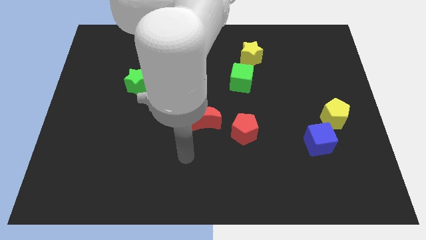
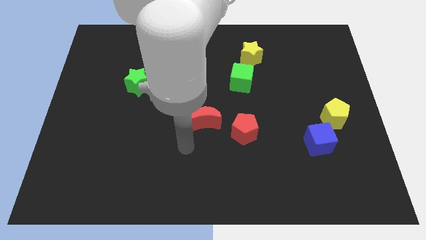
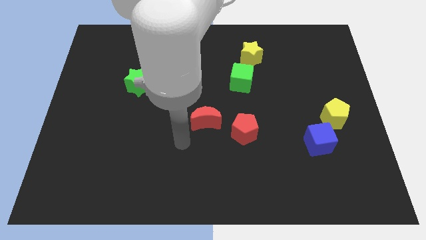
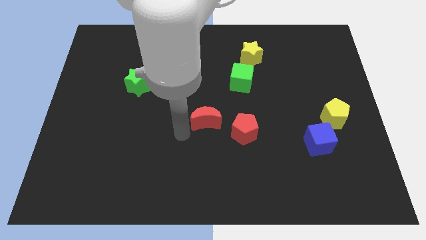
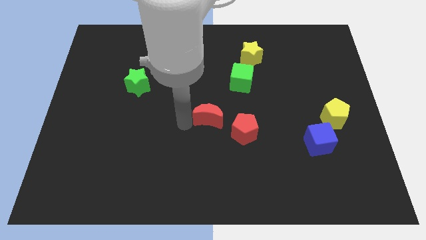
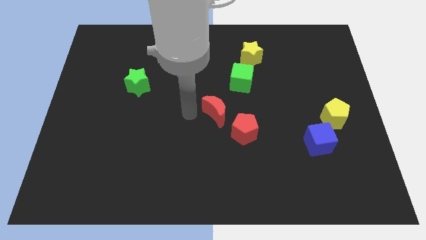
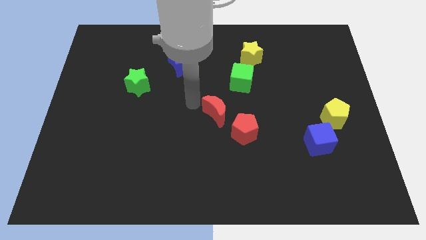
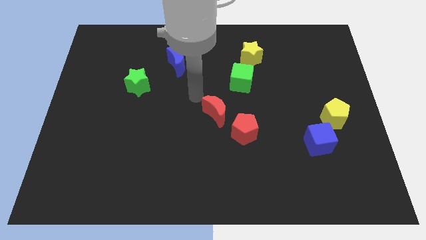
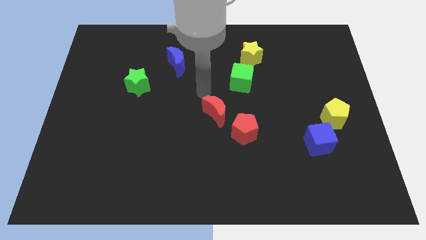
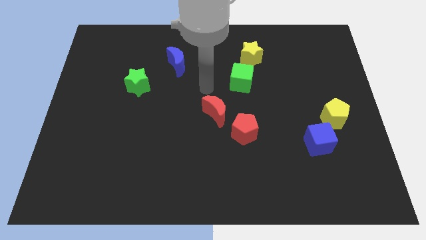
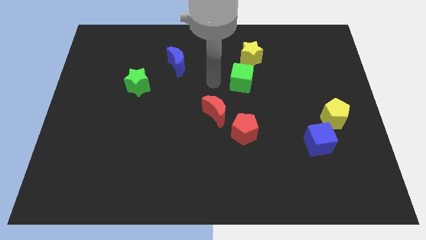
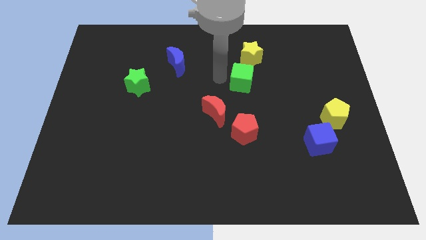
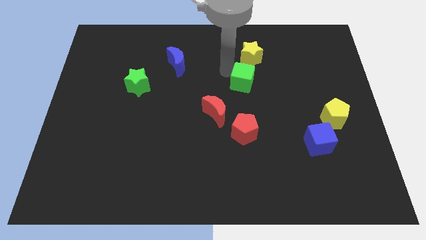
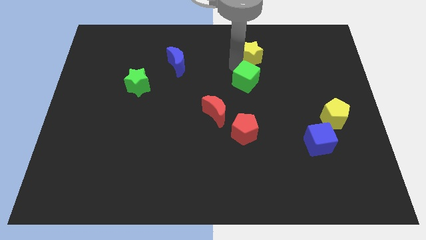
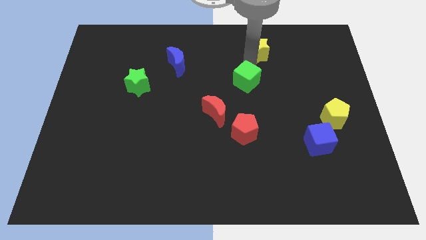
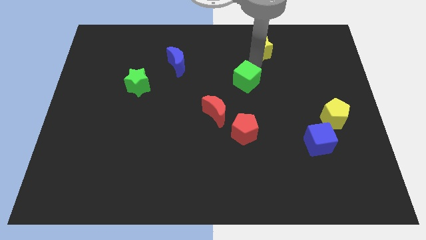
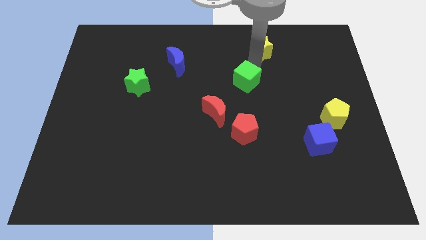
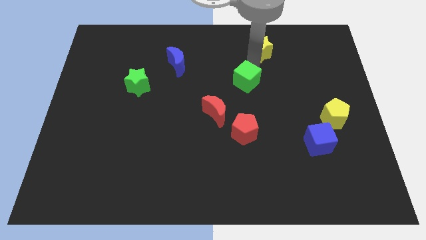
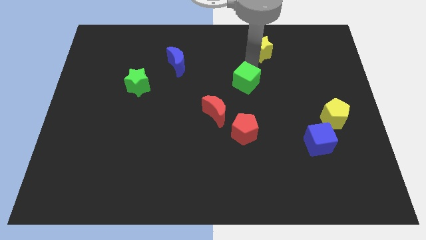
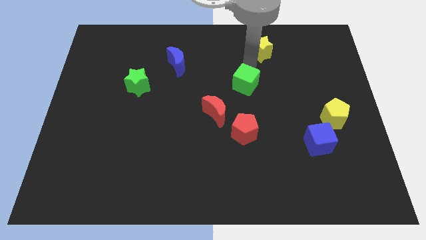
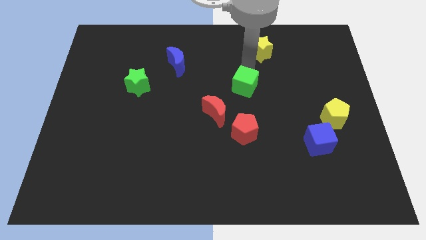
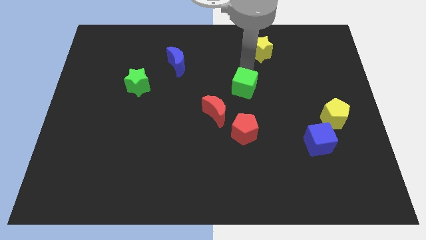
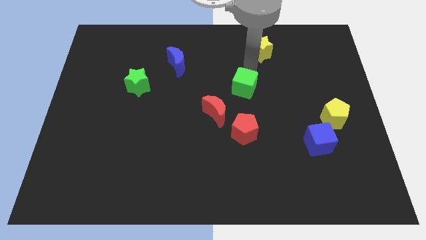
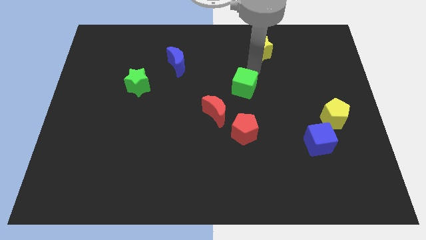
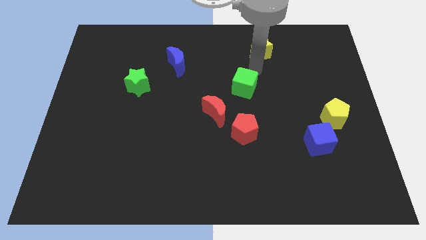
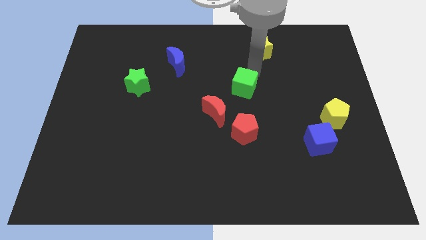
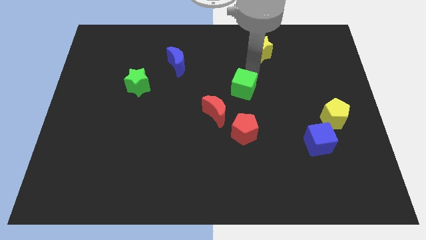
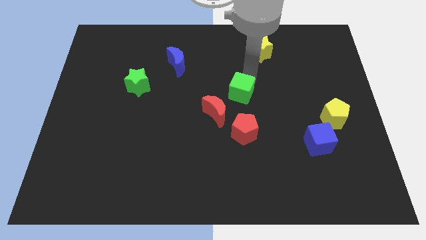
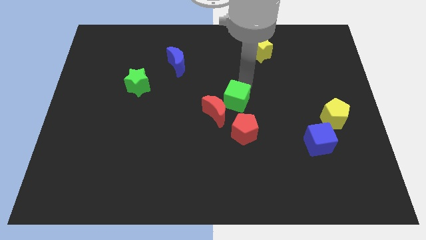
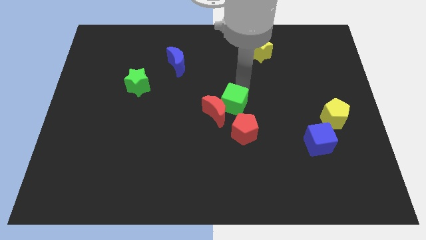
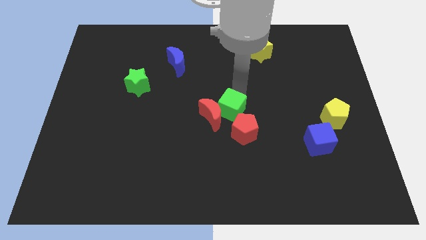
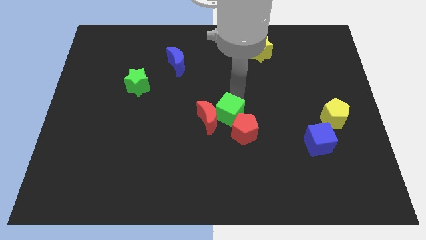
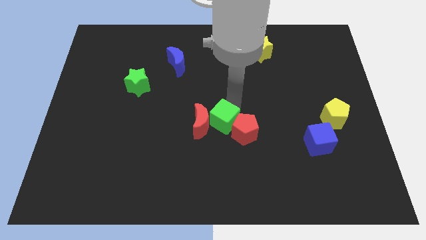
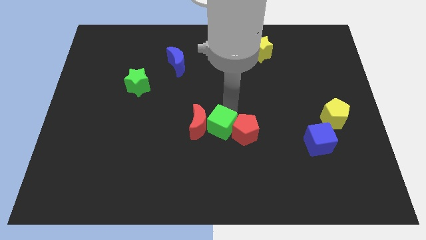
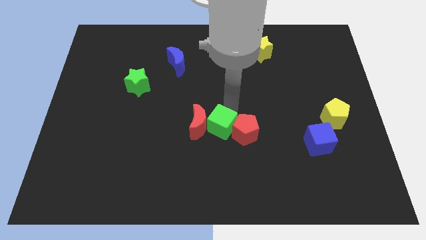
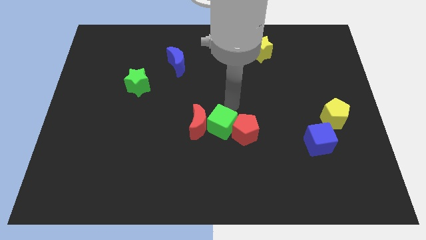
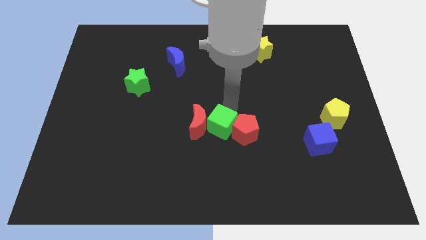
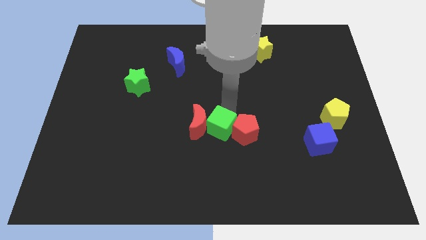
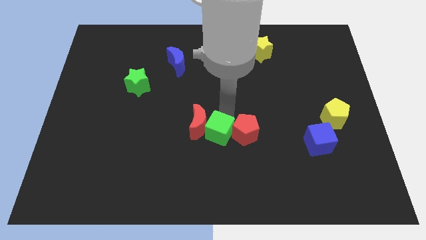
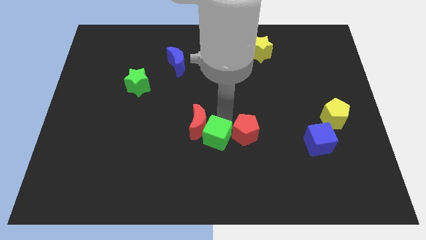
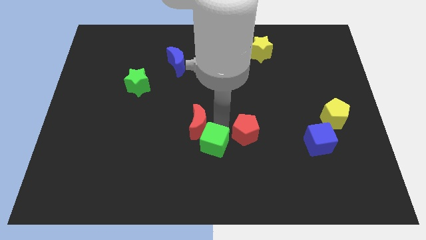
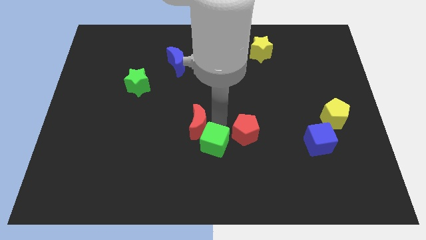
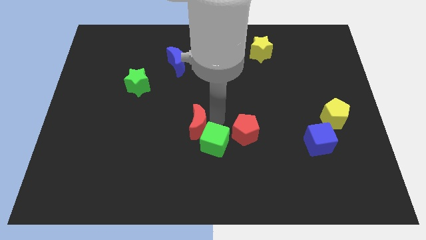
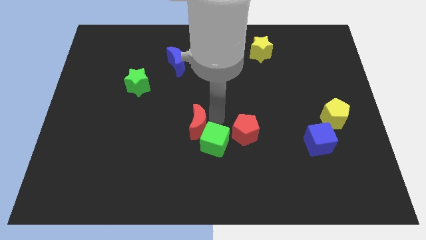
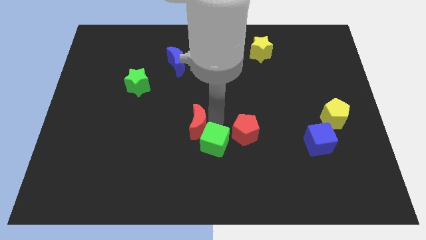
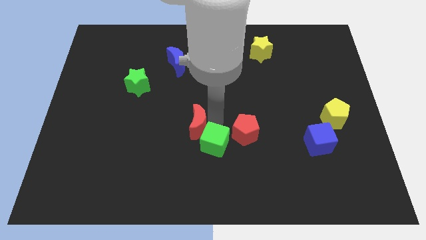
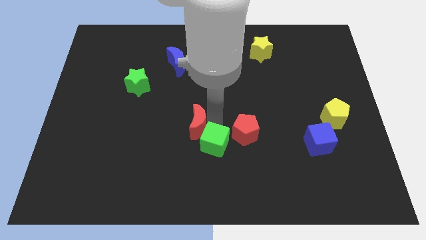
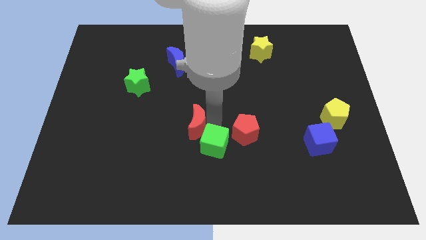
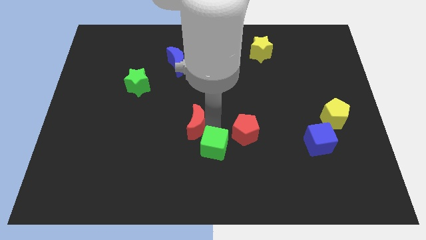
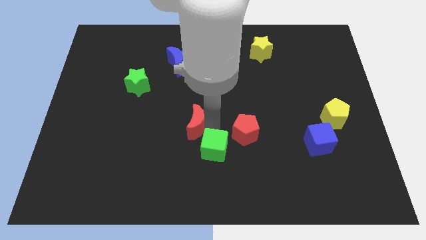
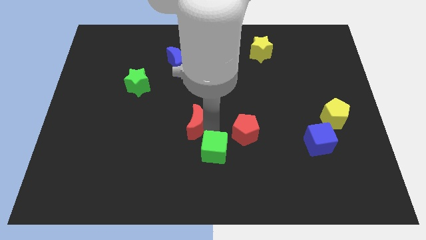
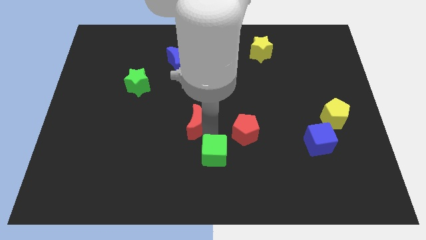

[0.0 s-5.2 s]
slide the green cube to the bottom

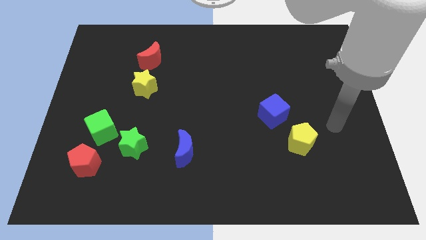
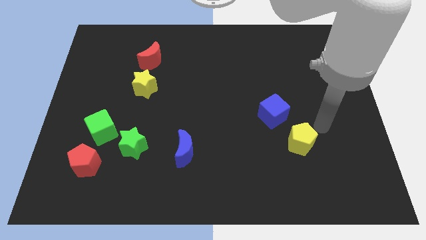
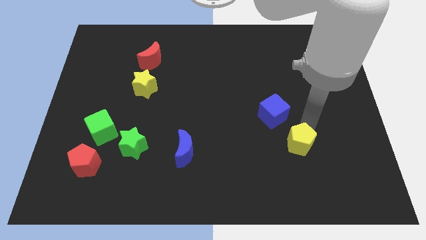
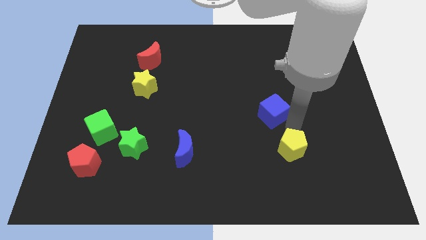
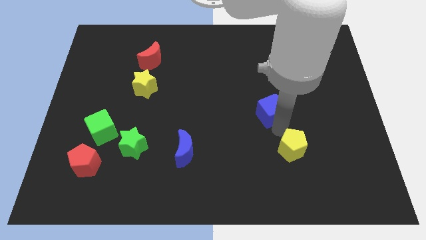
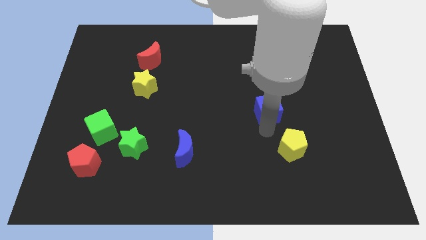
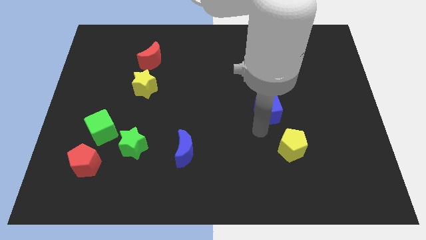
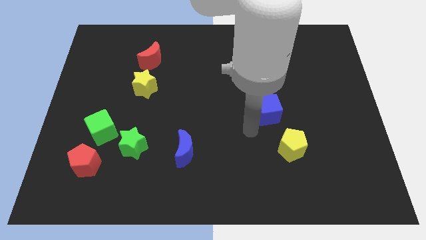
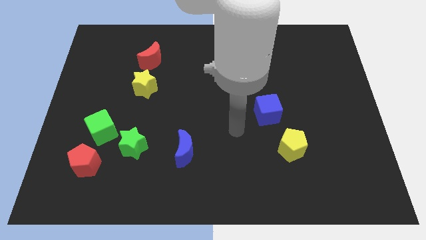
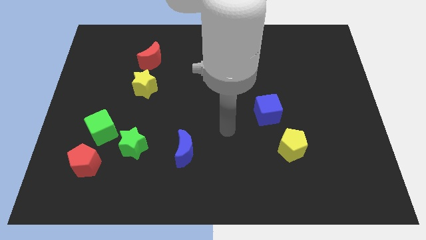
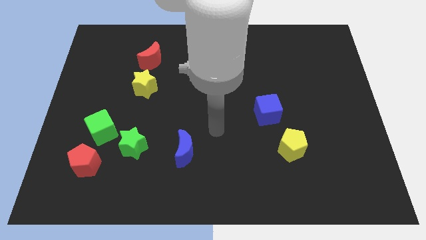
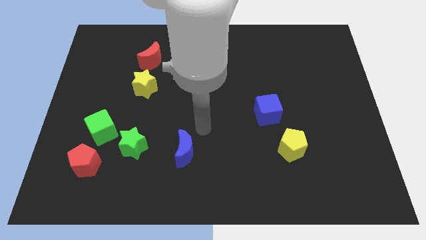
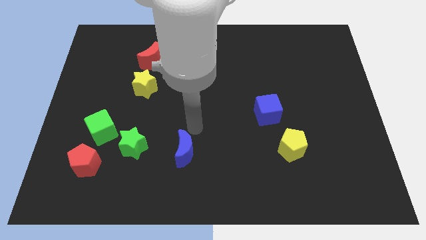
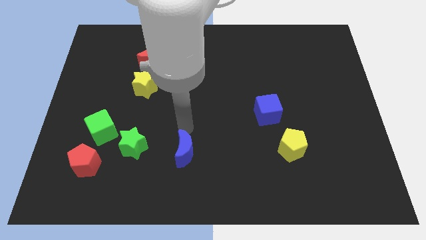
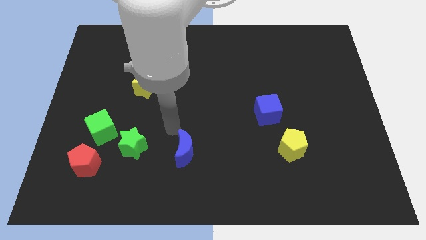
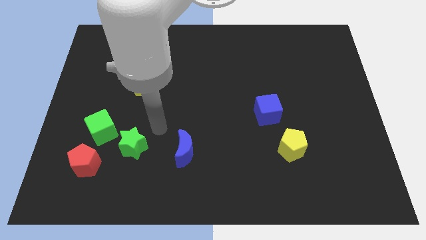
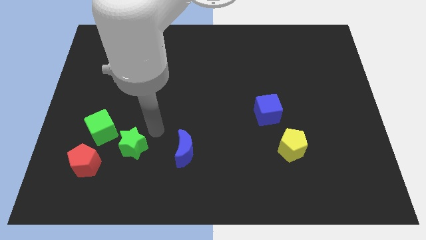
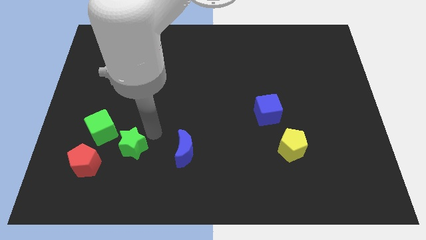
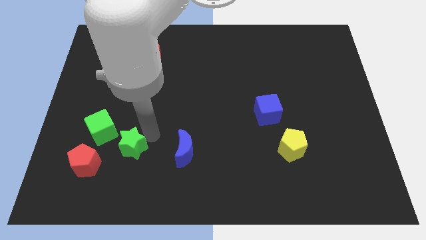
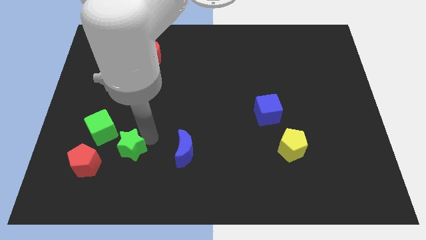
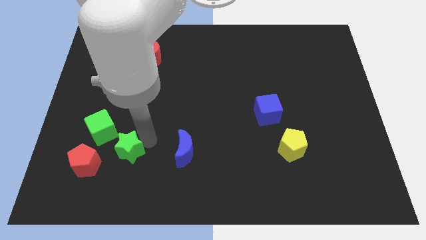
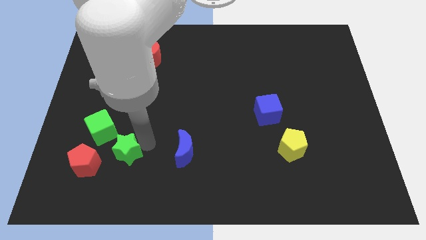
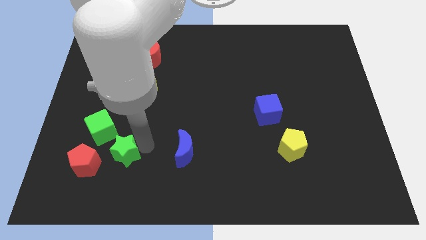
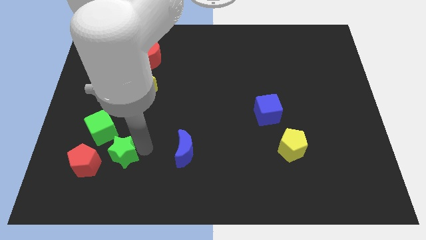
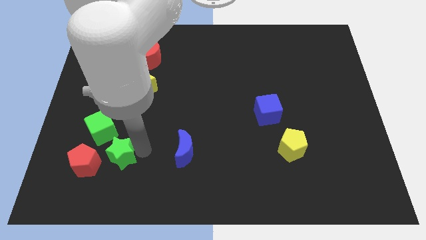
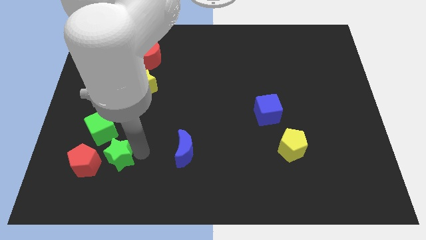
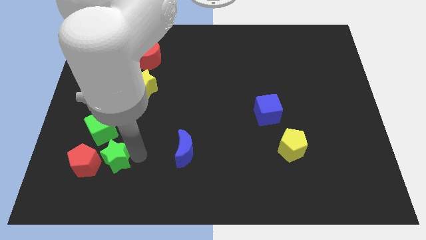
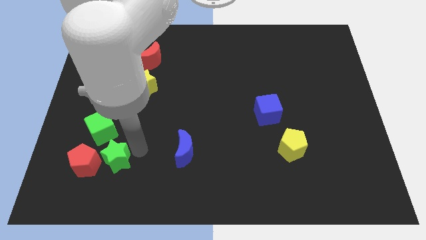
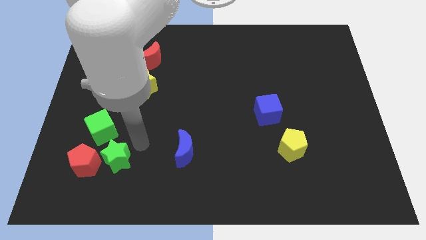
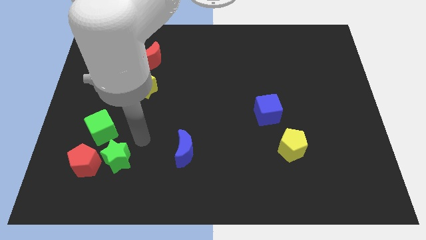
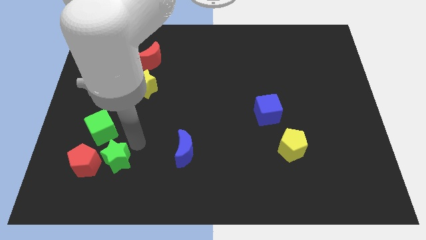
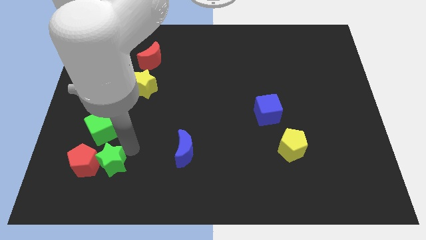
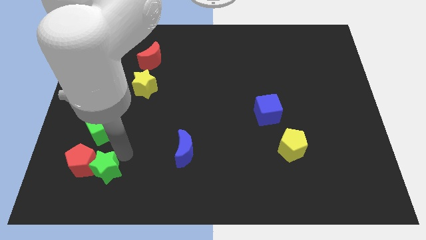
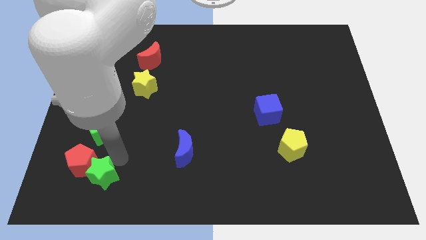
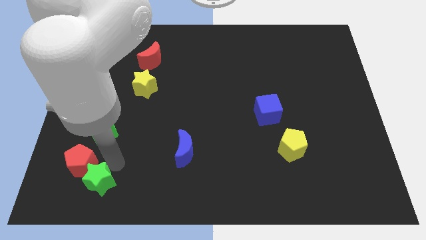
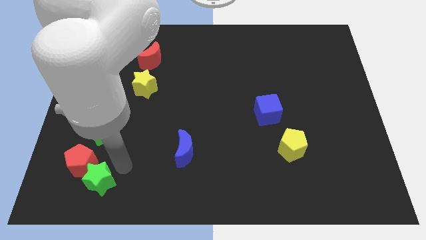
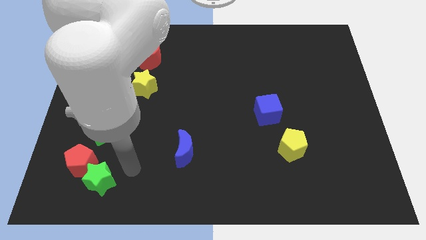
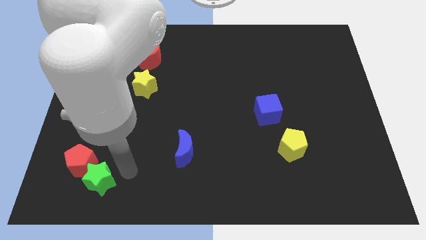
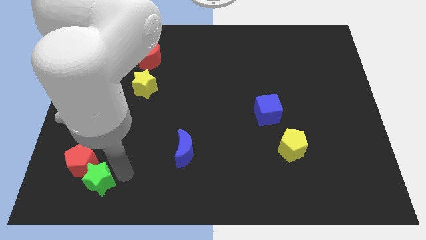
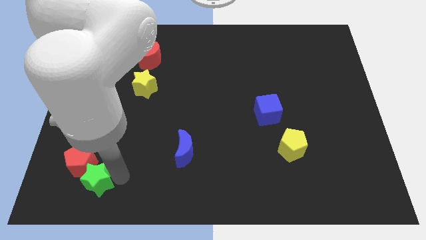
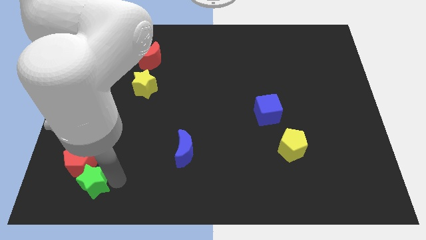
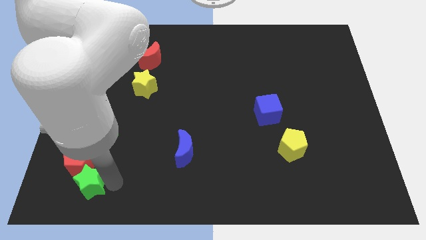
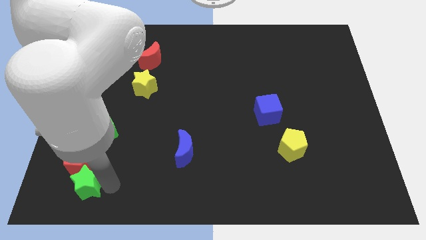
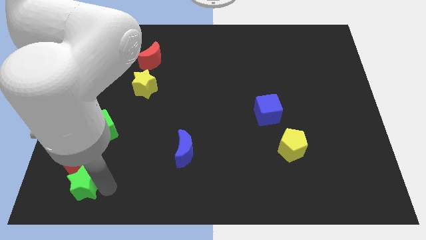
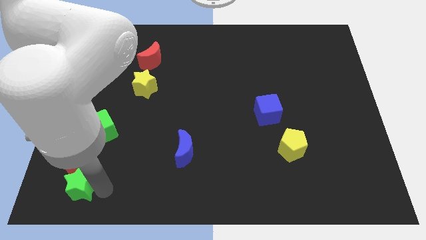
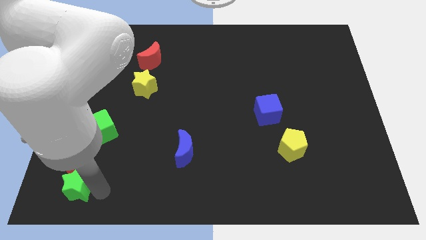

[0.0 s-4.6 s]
put the green star to the bottom left corner
